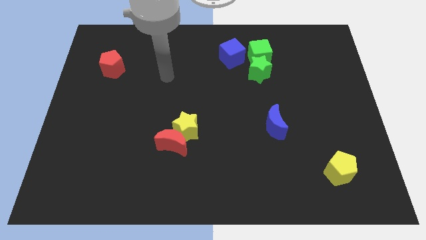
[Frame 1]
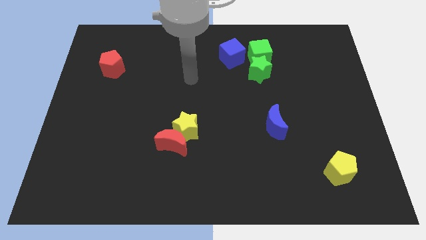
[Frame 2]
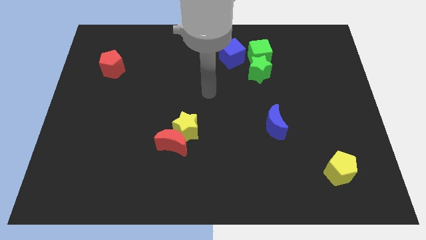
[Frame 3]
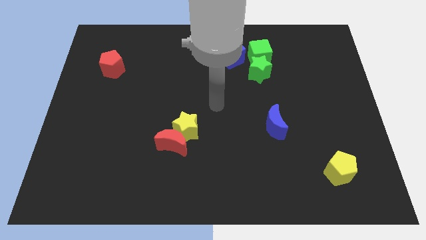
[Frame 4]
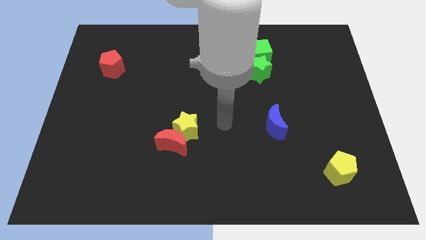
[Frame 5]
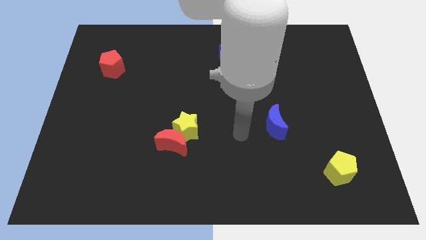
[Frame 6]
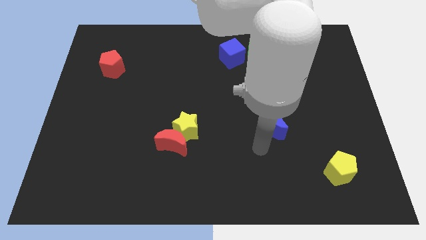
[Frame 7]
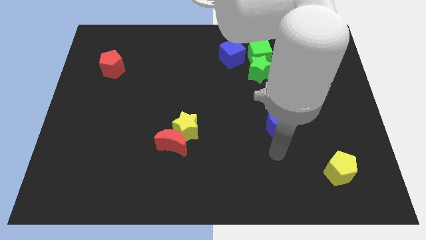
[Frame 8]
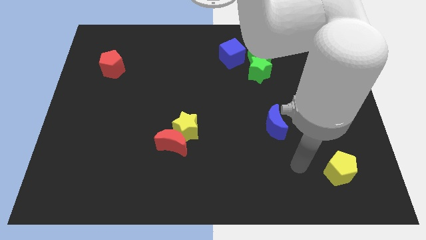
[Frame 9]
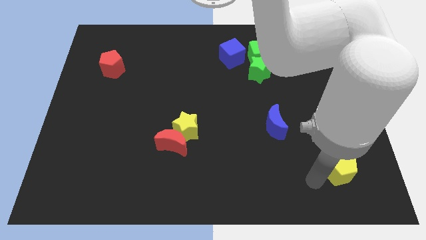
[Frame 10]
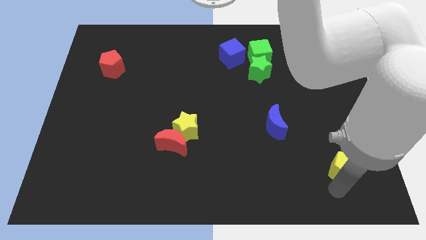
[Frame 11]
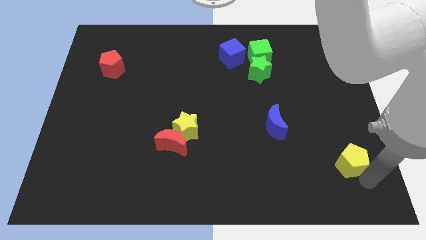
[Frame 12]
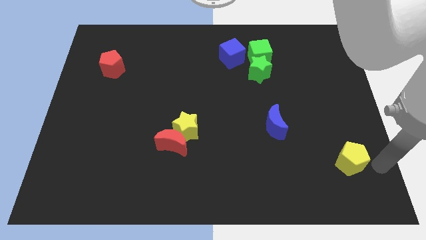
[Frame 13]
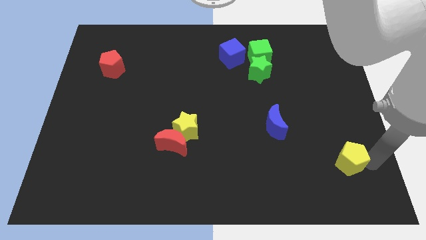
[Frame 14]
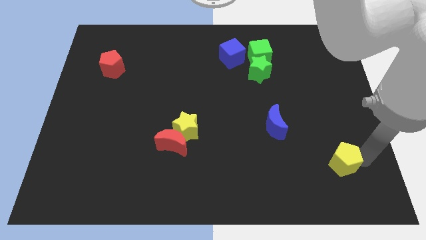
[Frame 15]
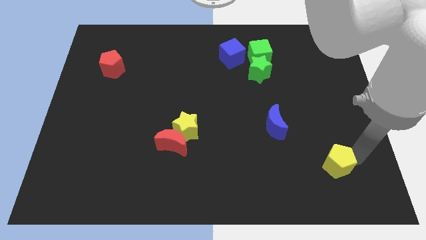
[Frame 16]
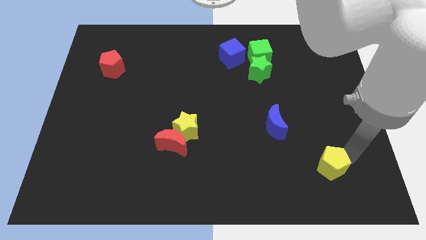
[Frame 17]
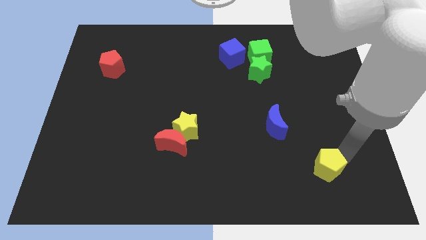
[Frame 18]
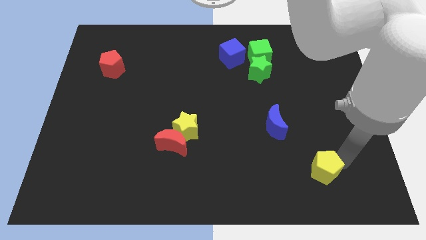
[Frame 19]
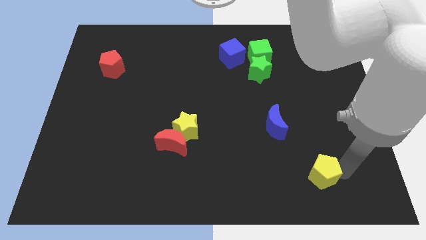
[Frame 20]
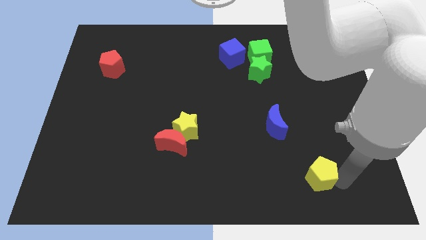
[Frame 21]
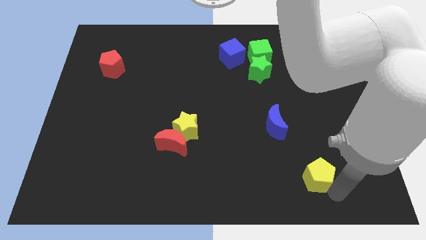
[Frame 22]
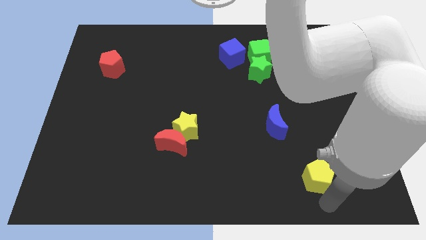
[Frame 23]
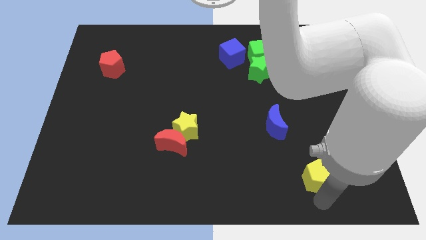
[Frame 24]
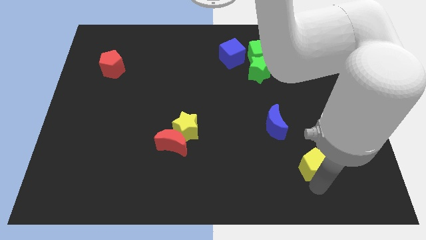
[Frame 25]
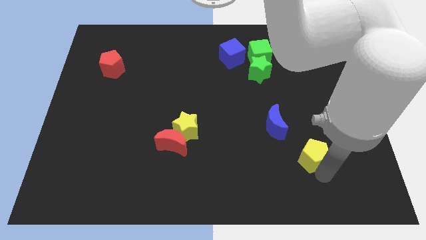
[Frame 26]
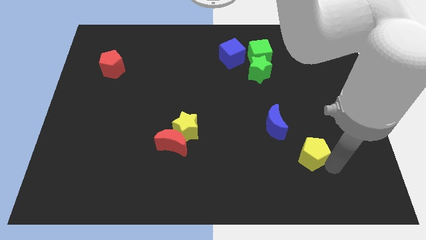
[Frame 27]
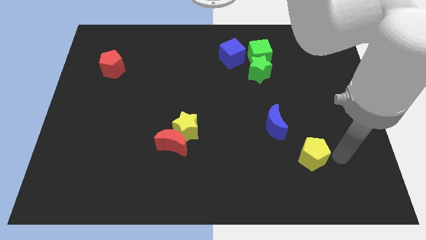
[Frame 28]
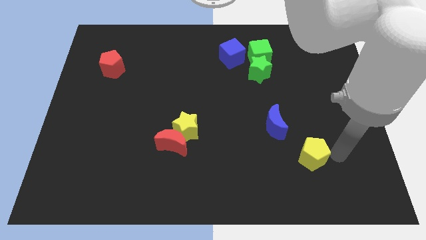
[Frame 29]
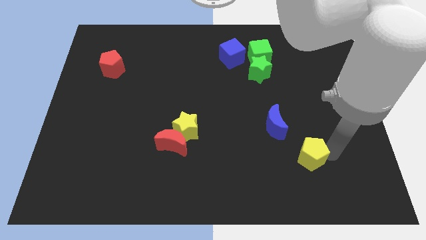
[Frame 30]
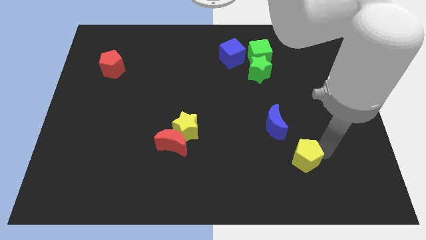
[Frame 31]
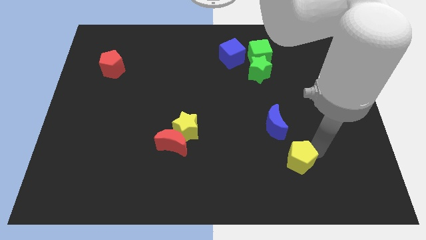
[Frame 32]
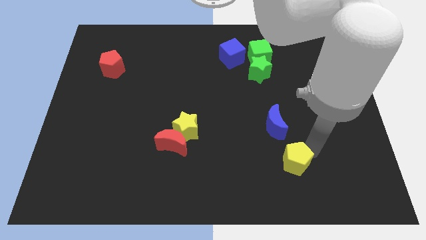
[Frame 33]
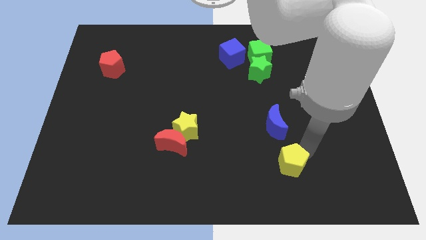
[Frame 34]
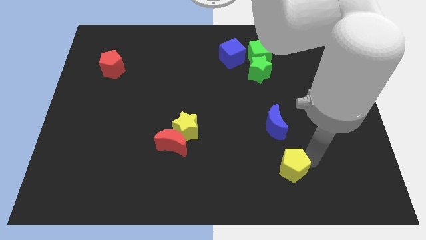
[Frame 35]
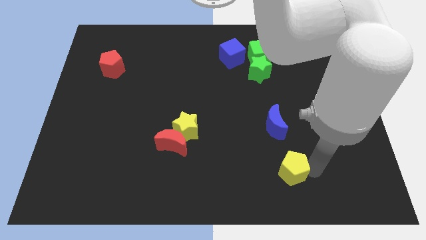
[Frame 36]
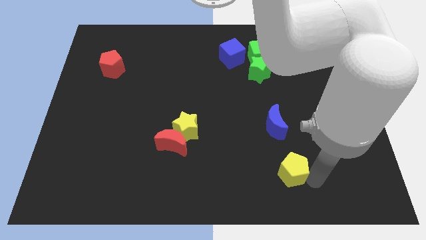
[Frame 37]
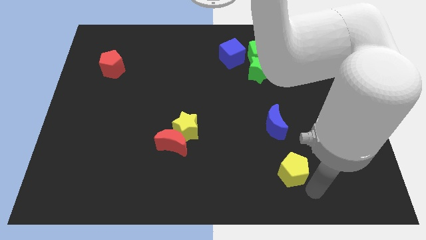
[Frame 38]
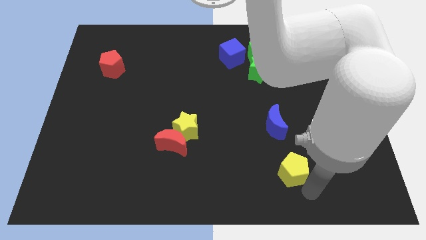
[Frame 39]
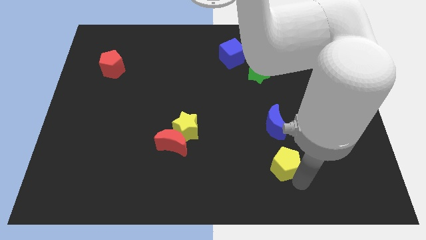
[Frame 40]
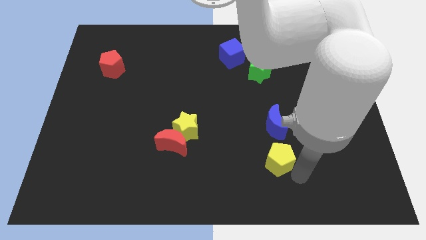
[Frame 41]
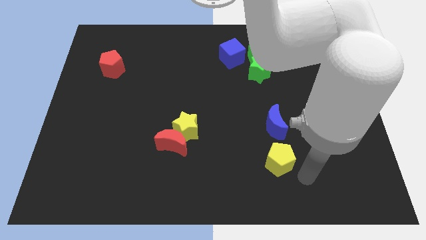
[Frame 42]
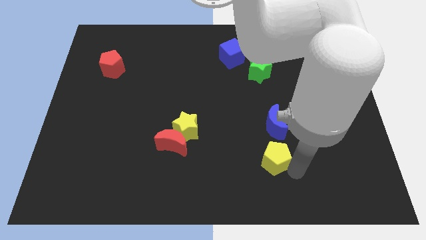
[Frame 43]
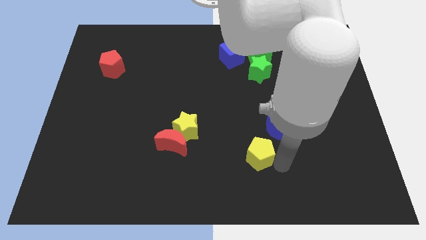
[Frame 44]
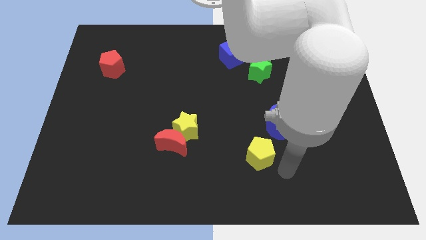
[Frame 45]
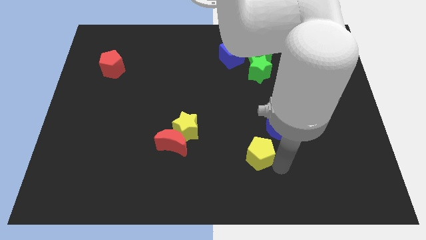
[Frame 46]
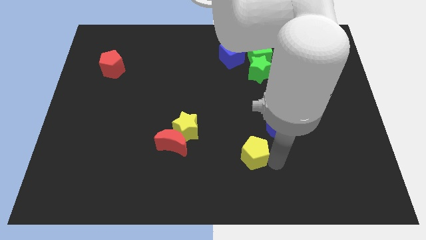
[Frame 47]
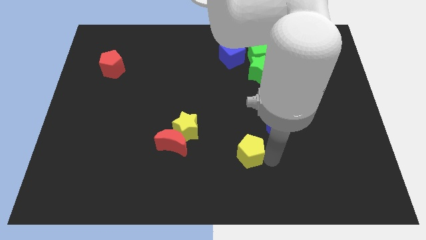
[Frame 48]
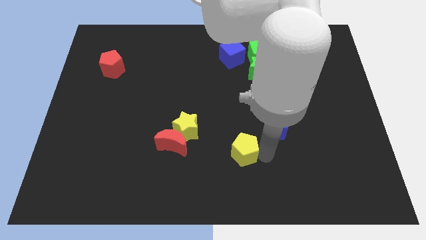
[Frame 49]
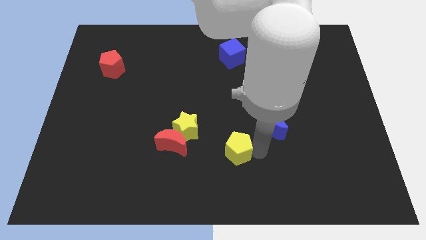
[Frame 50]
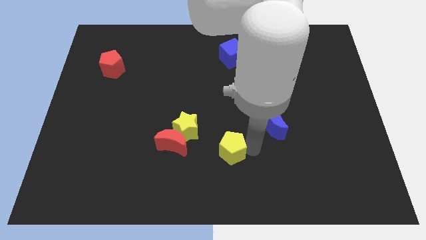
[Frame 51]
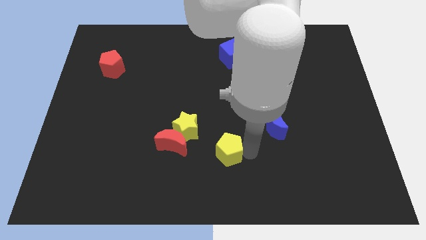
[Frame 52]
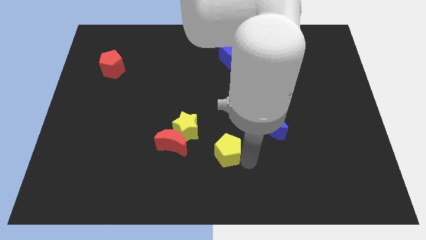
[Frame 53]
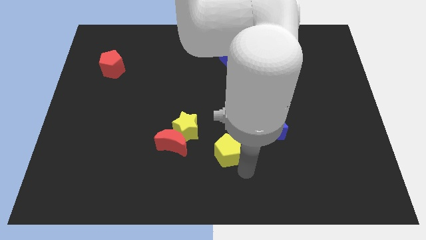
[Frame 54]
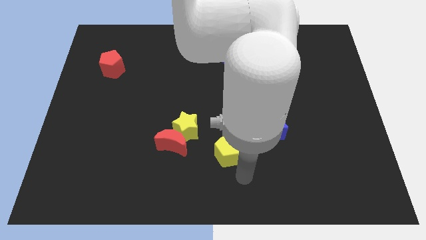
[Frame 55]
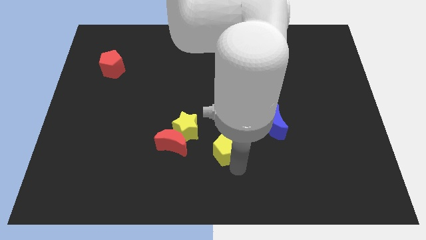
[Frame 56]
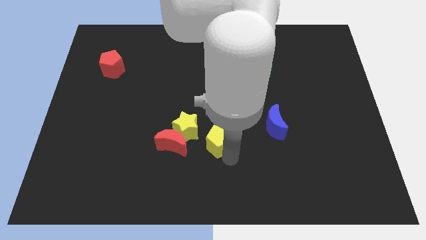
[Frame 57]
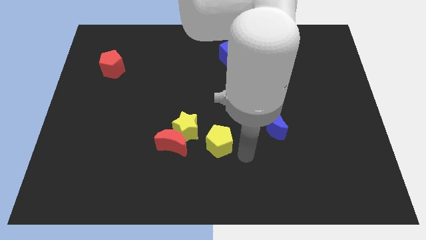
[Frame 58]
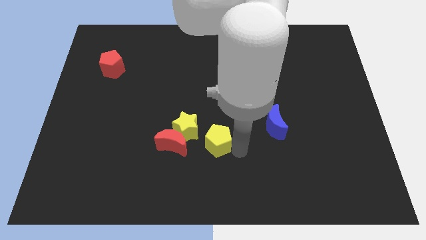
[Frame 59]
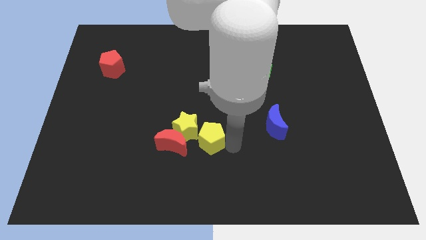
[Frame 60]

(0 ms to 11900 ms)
push the yellow pentagon towards the yellow star
